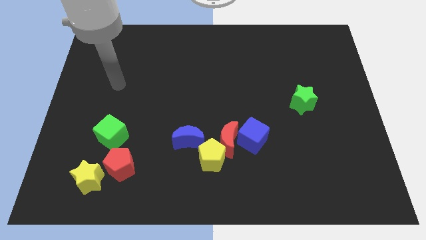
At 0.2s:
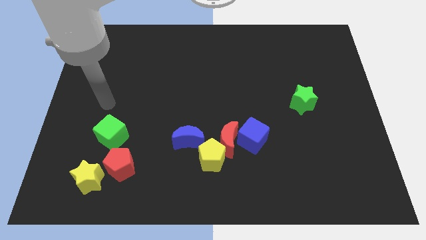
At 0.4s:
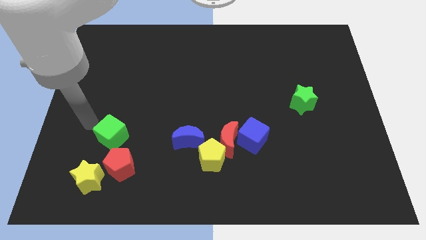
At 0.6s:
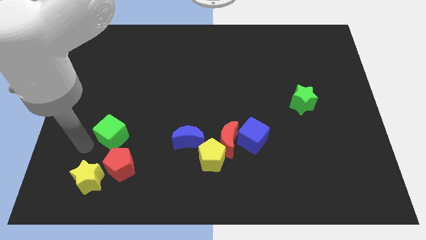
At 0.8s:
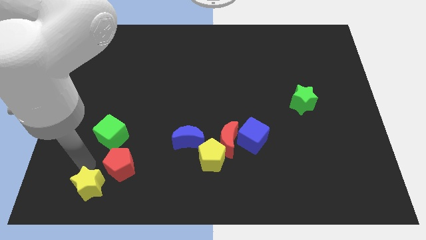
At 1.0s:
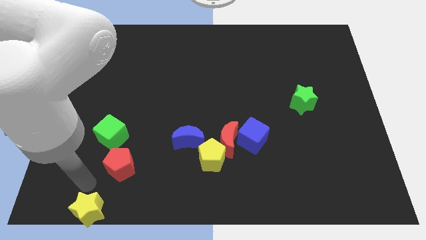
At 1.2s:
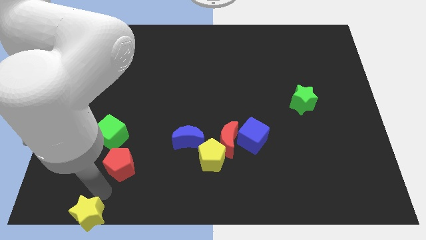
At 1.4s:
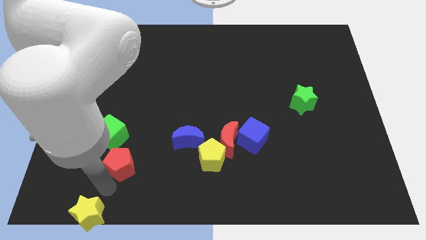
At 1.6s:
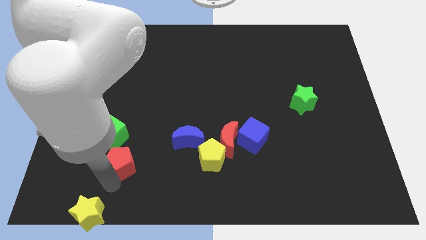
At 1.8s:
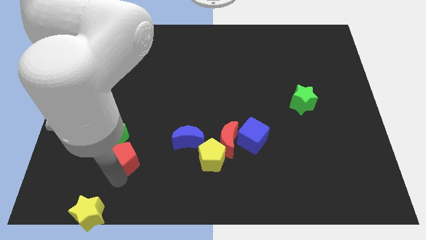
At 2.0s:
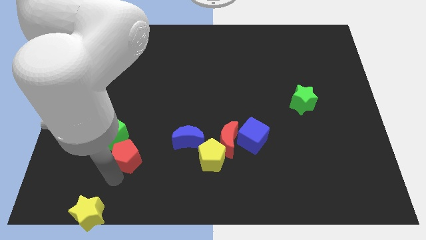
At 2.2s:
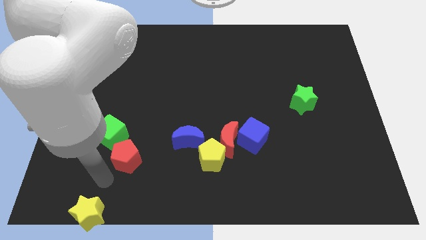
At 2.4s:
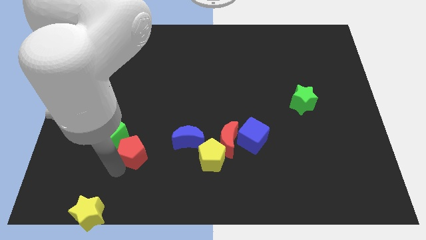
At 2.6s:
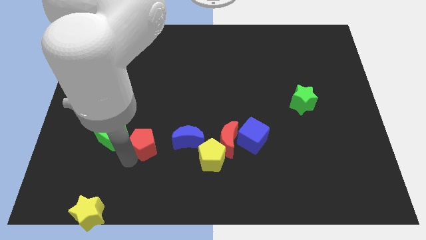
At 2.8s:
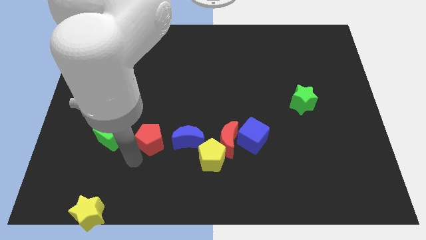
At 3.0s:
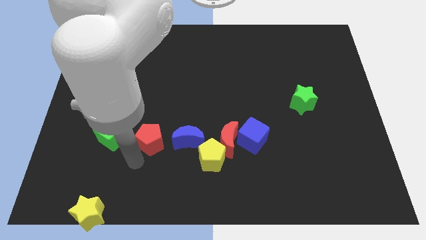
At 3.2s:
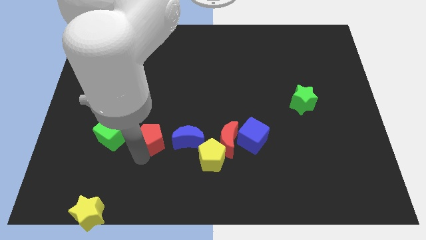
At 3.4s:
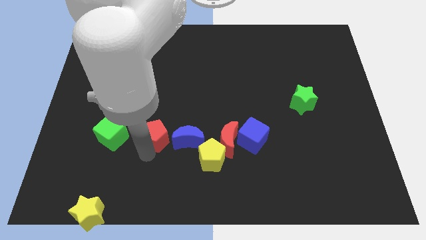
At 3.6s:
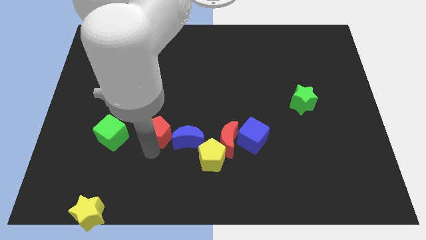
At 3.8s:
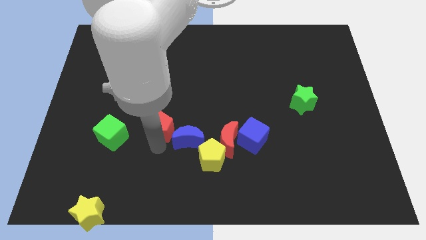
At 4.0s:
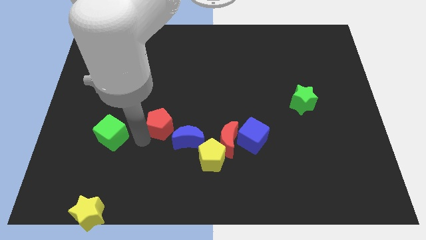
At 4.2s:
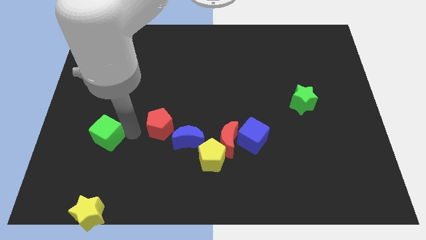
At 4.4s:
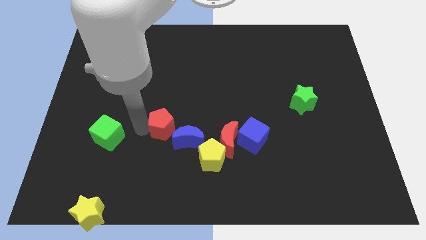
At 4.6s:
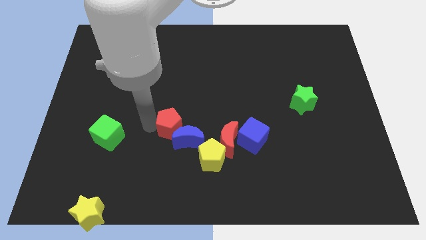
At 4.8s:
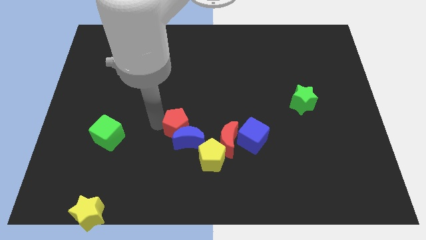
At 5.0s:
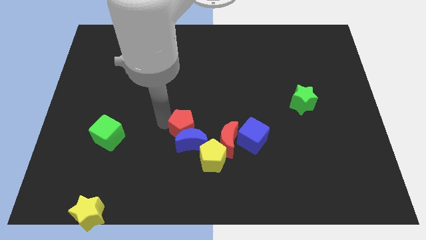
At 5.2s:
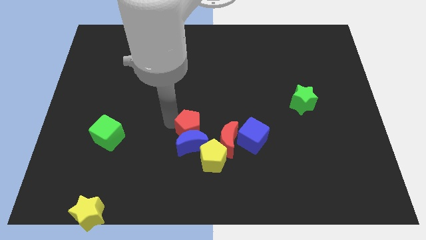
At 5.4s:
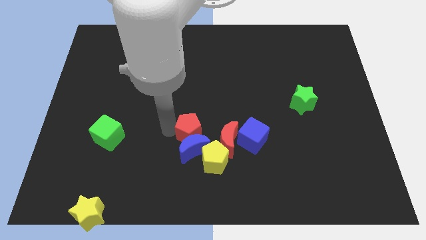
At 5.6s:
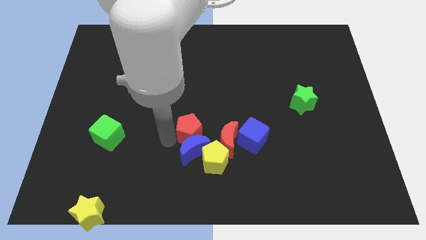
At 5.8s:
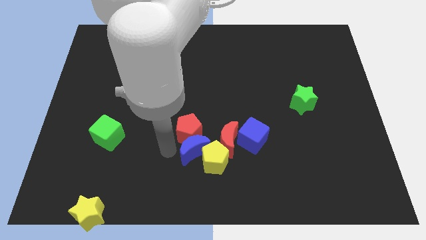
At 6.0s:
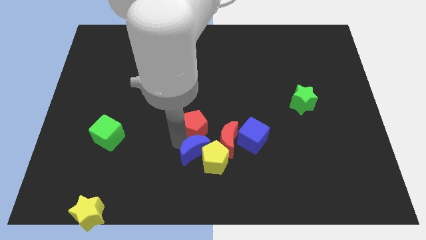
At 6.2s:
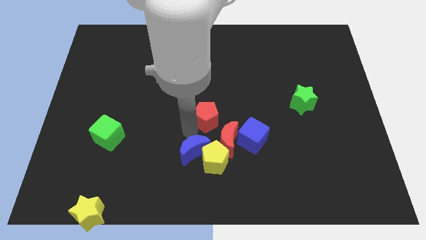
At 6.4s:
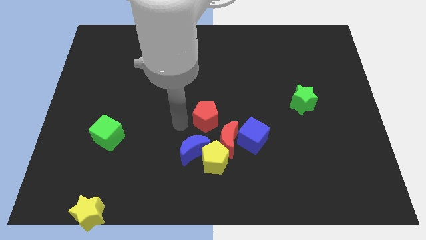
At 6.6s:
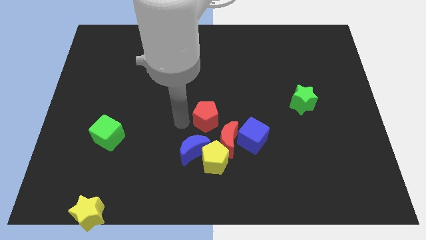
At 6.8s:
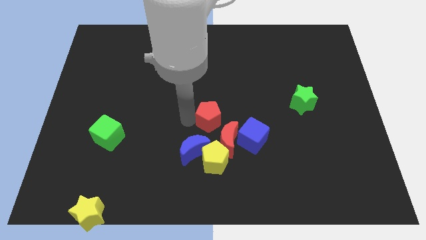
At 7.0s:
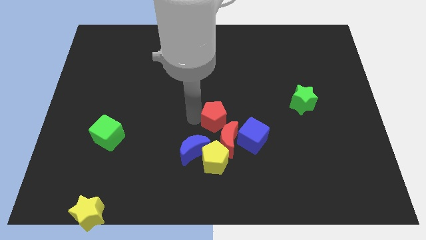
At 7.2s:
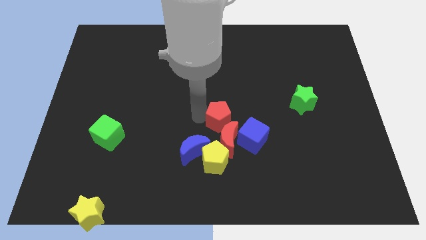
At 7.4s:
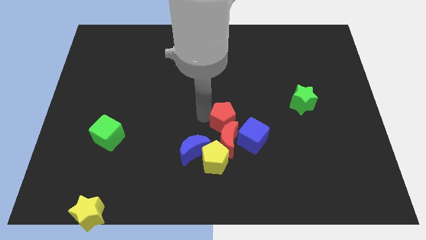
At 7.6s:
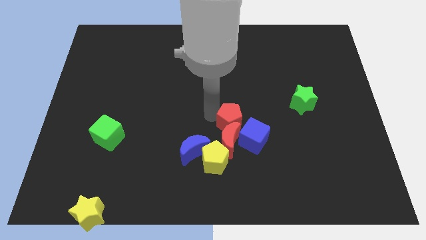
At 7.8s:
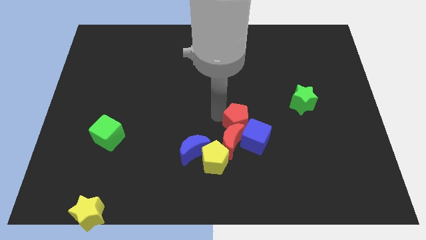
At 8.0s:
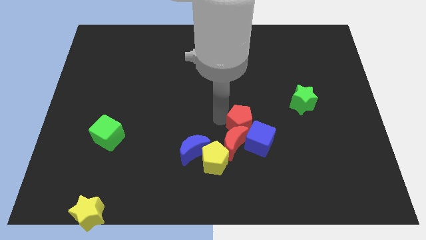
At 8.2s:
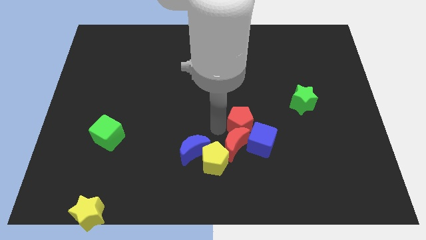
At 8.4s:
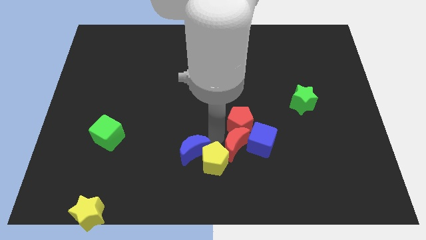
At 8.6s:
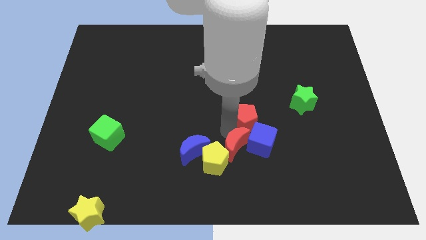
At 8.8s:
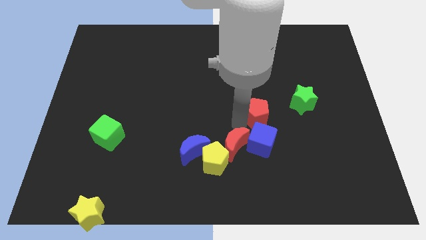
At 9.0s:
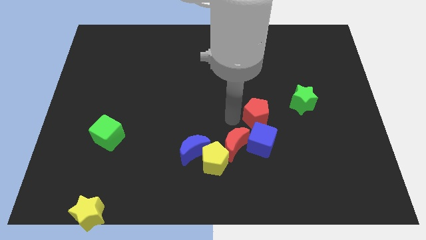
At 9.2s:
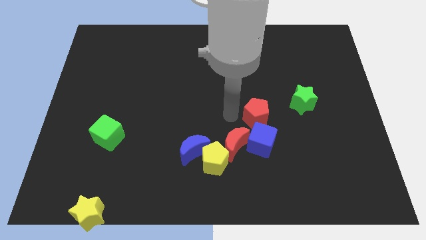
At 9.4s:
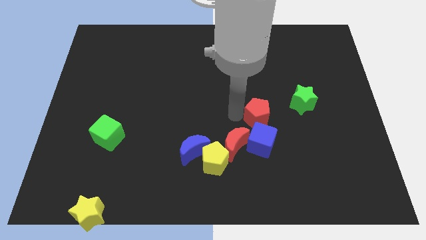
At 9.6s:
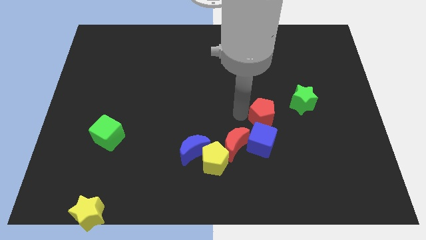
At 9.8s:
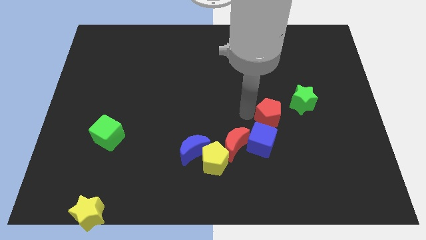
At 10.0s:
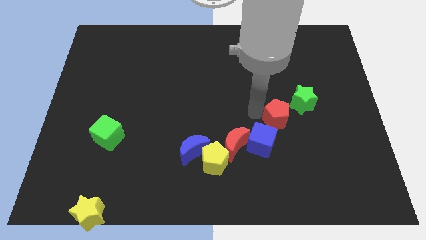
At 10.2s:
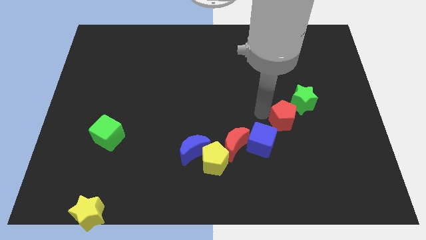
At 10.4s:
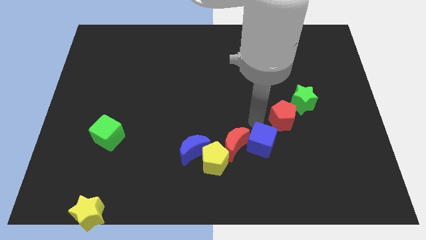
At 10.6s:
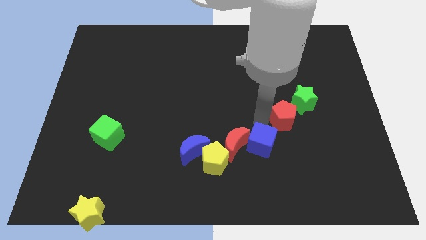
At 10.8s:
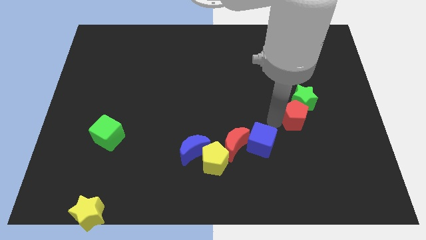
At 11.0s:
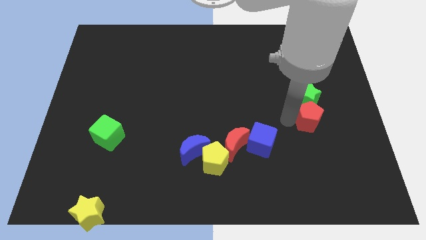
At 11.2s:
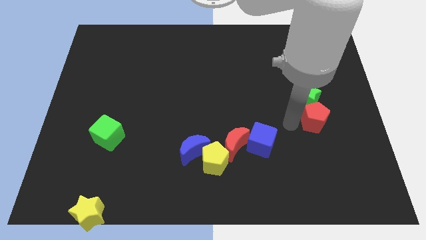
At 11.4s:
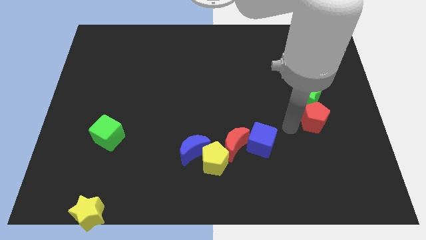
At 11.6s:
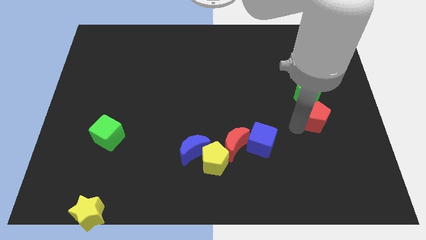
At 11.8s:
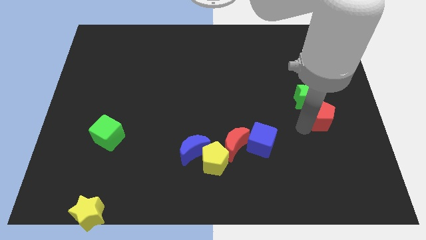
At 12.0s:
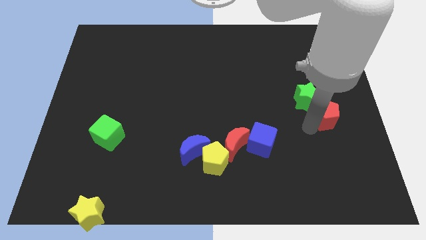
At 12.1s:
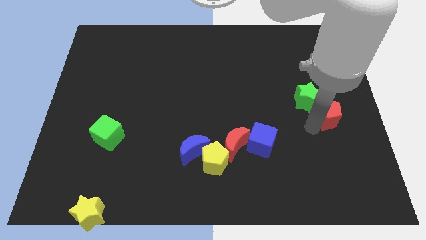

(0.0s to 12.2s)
move the red pentagon to the right side
